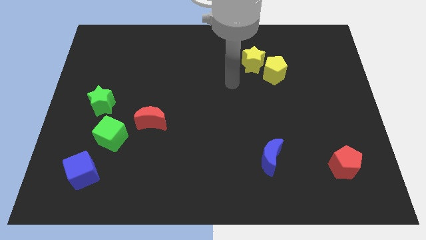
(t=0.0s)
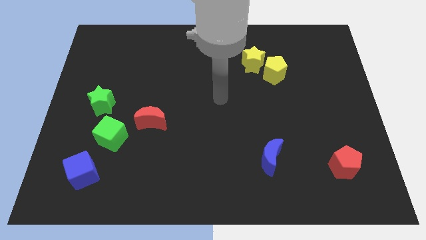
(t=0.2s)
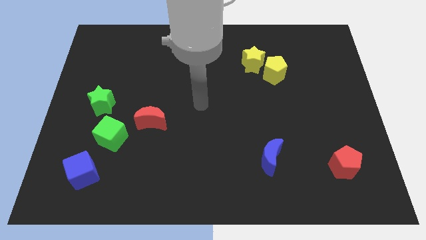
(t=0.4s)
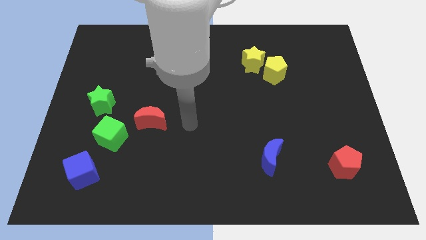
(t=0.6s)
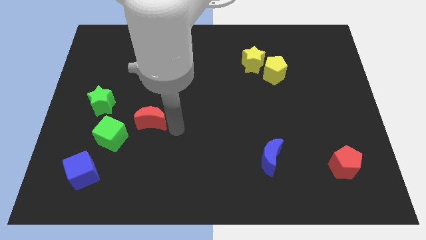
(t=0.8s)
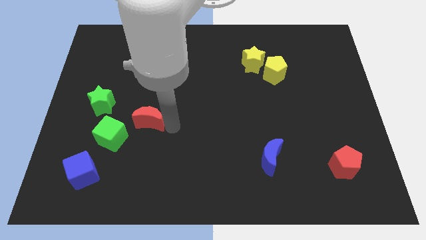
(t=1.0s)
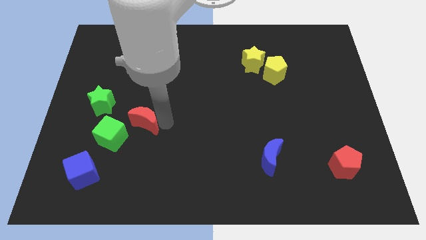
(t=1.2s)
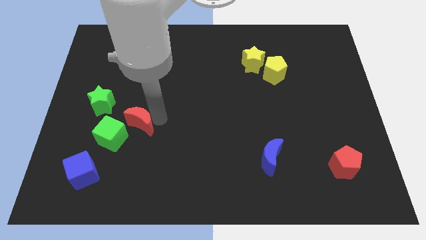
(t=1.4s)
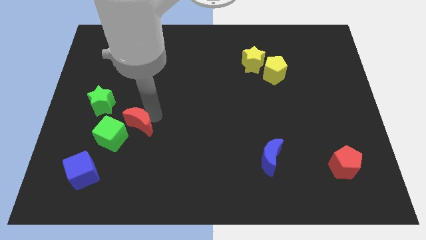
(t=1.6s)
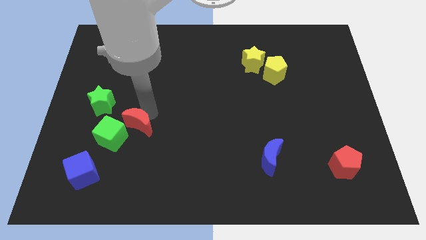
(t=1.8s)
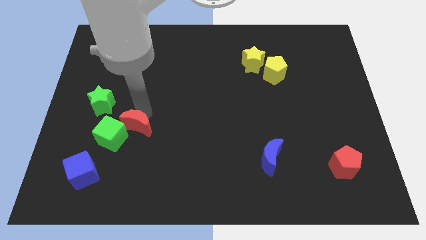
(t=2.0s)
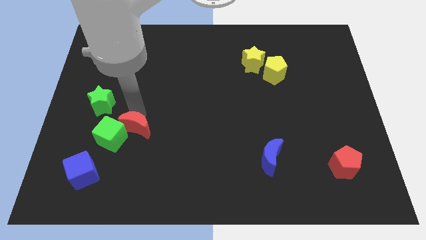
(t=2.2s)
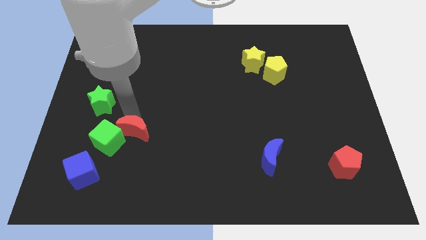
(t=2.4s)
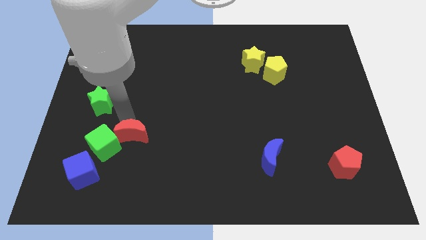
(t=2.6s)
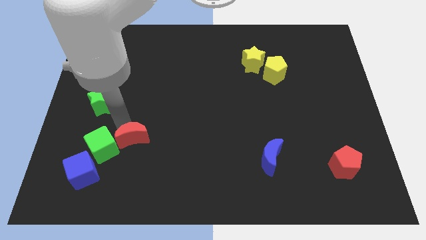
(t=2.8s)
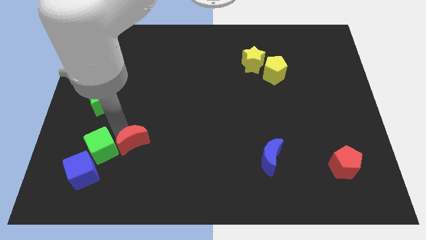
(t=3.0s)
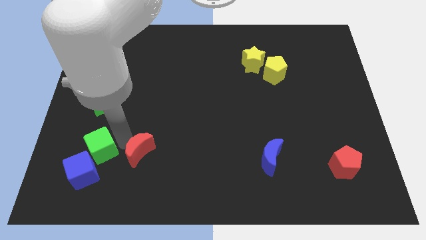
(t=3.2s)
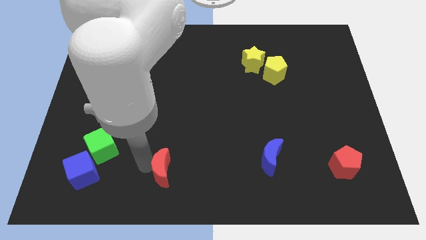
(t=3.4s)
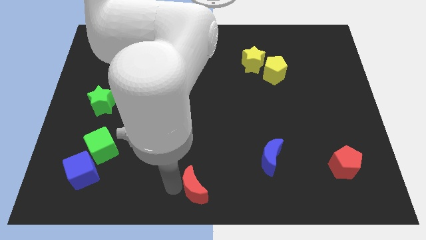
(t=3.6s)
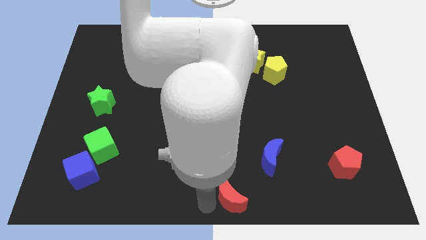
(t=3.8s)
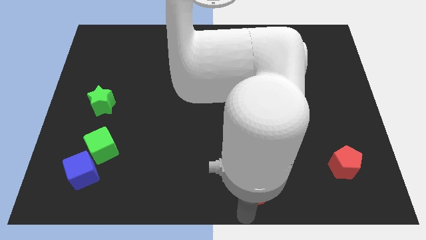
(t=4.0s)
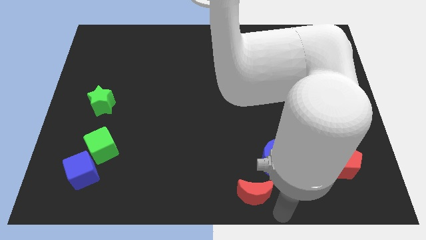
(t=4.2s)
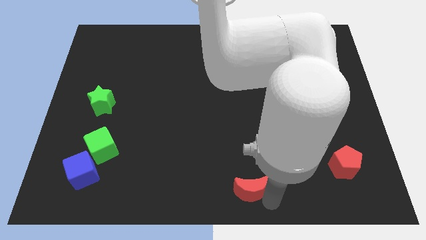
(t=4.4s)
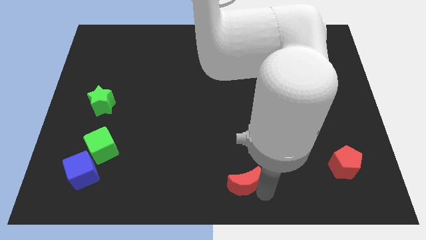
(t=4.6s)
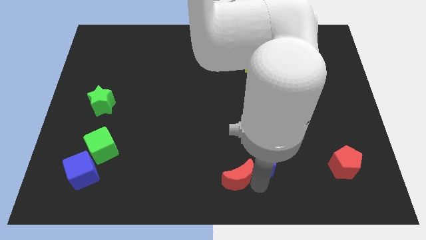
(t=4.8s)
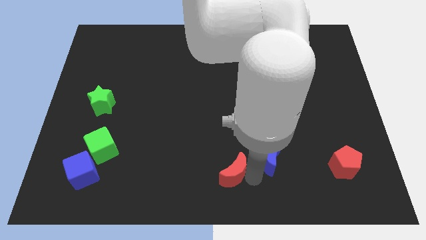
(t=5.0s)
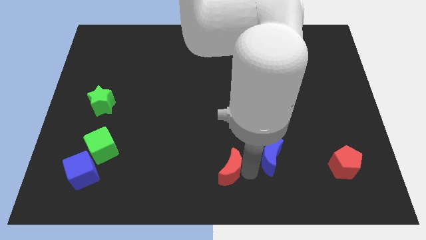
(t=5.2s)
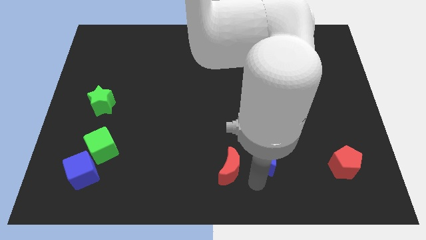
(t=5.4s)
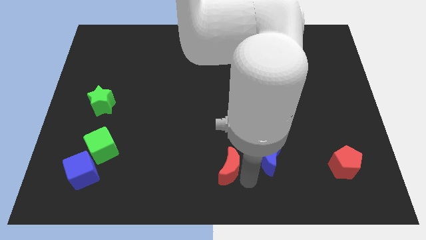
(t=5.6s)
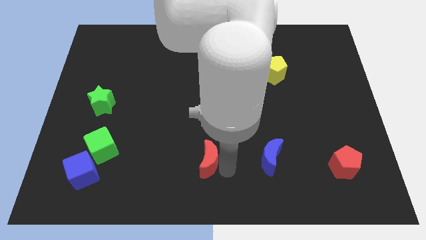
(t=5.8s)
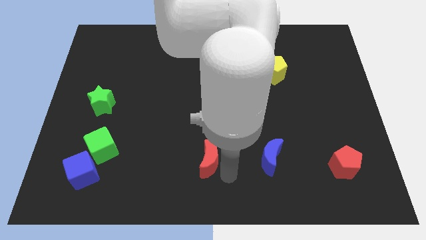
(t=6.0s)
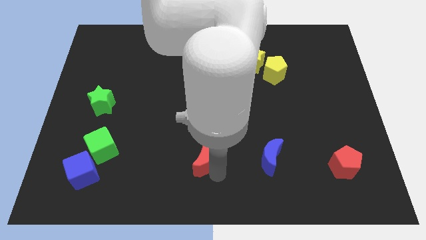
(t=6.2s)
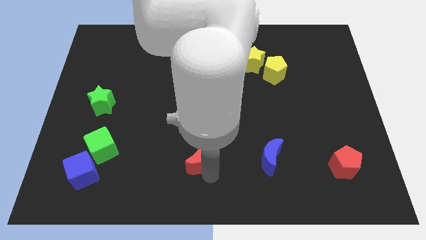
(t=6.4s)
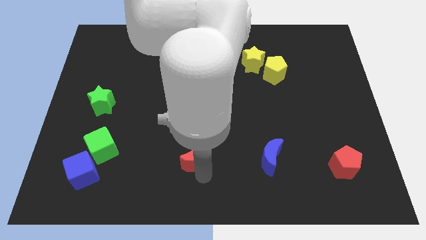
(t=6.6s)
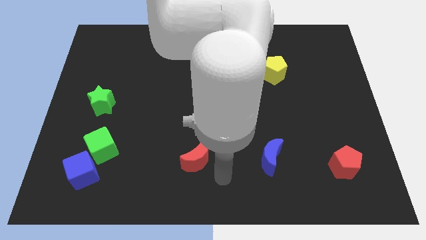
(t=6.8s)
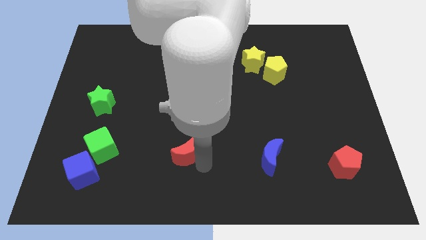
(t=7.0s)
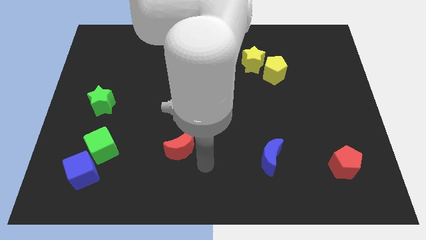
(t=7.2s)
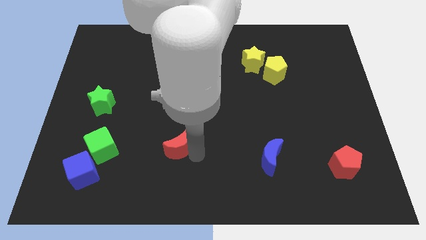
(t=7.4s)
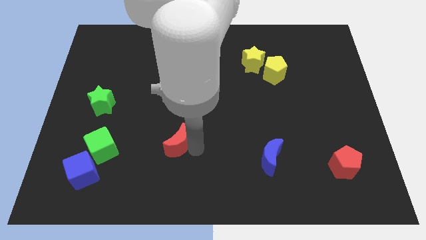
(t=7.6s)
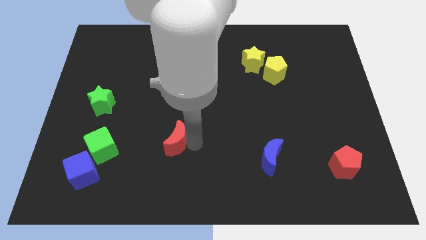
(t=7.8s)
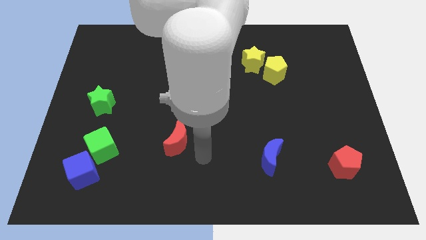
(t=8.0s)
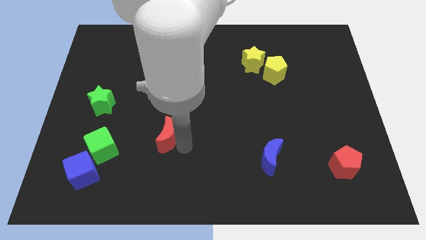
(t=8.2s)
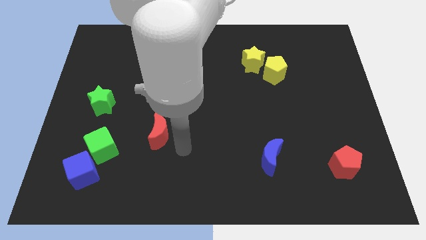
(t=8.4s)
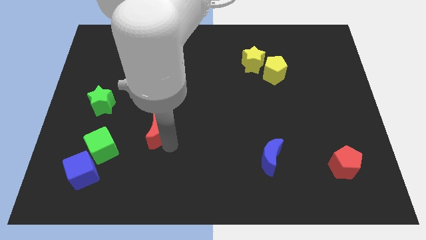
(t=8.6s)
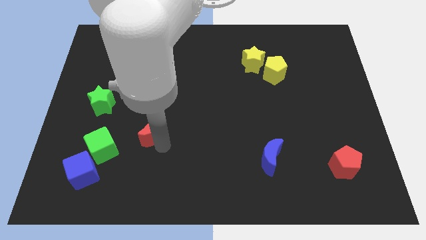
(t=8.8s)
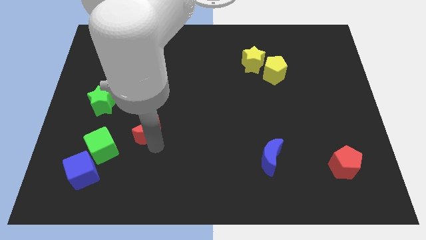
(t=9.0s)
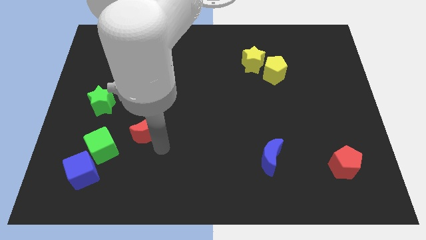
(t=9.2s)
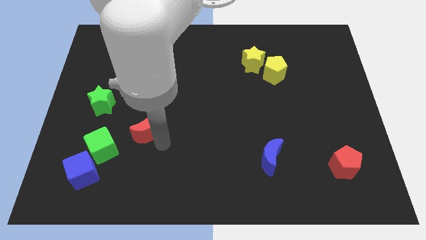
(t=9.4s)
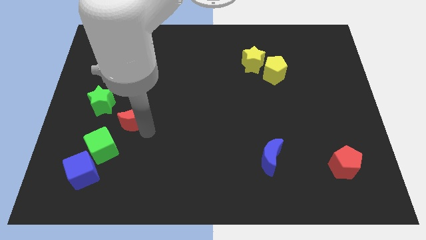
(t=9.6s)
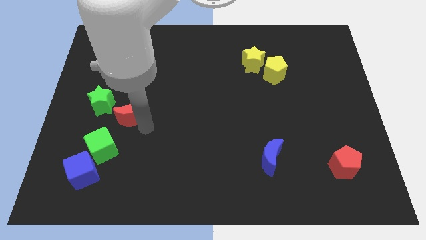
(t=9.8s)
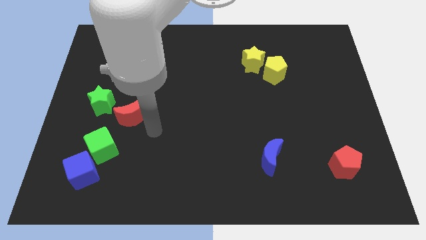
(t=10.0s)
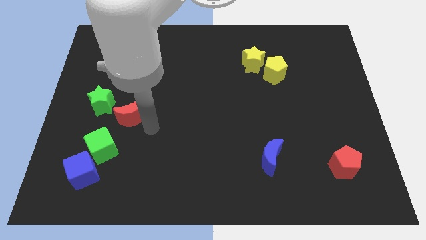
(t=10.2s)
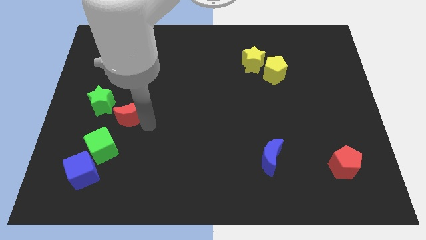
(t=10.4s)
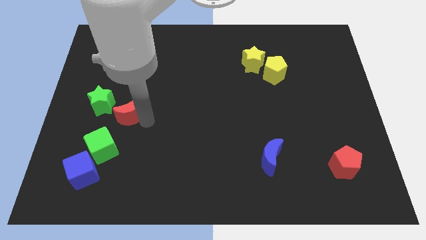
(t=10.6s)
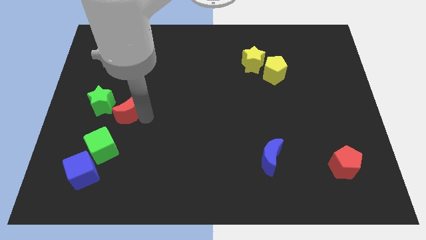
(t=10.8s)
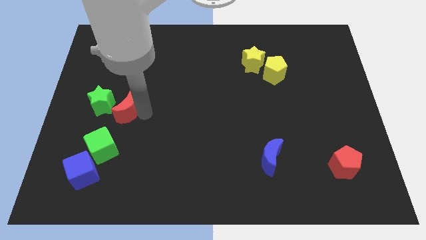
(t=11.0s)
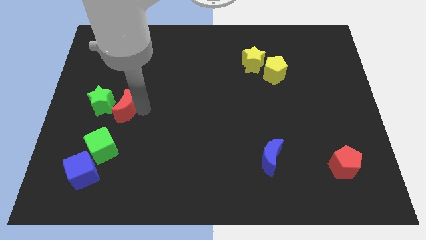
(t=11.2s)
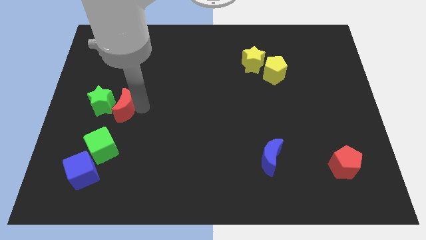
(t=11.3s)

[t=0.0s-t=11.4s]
push the red moon towards the green star

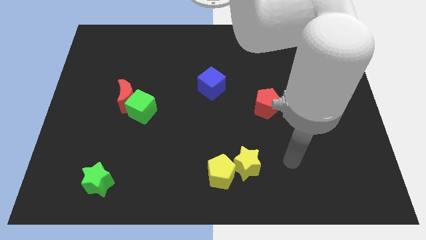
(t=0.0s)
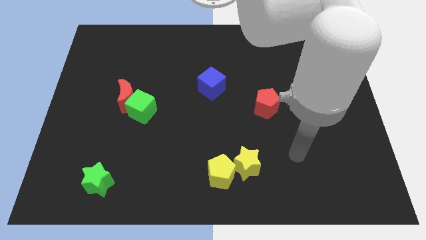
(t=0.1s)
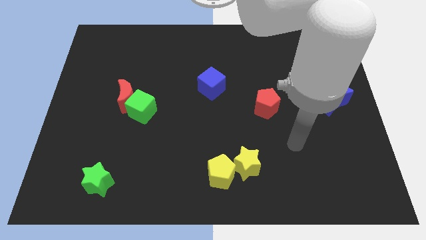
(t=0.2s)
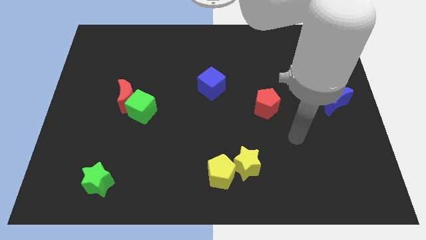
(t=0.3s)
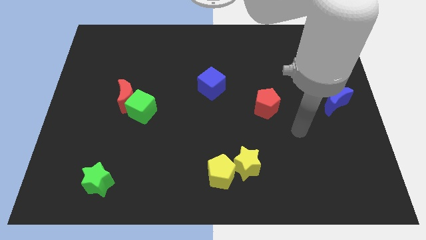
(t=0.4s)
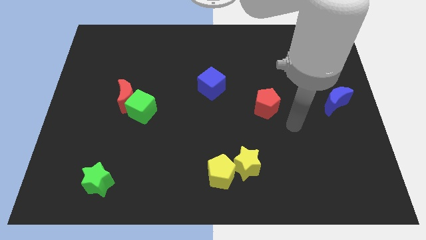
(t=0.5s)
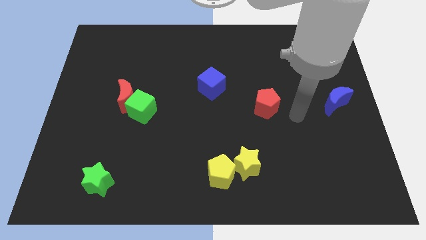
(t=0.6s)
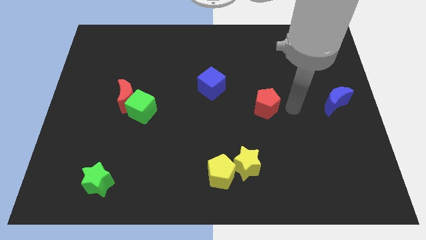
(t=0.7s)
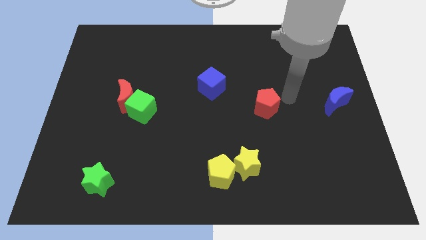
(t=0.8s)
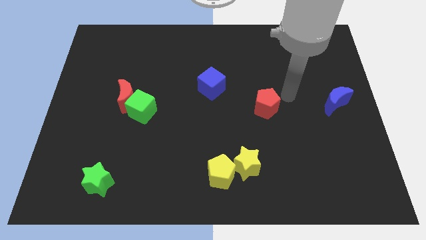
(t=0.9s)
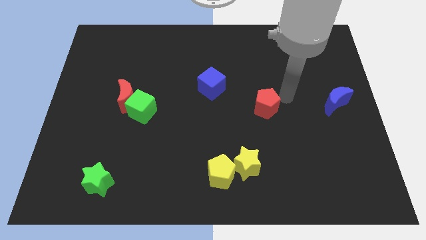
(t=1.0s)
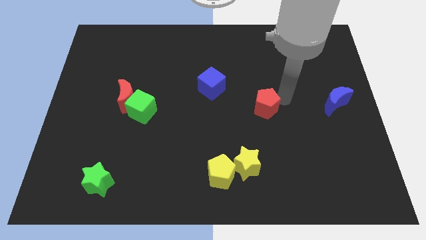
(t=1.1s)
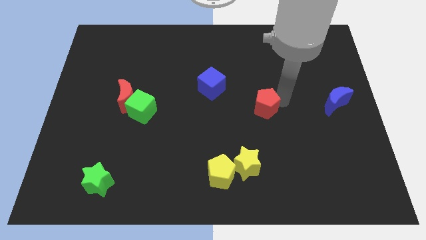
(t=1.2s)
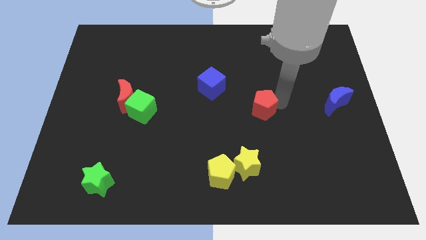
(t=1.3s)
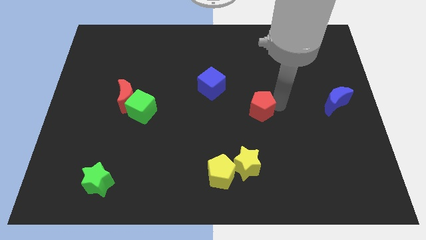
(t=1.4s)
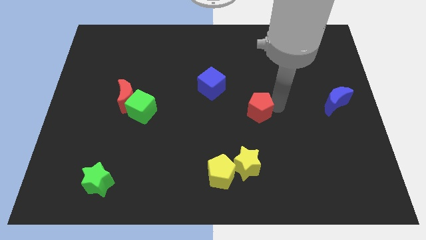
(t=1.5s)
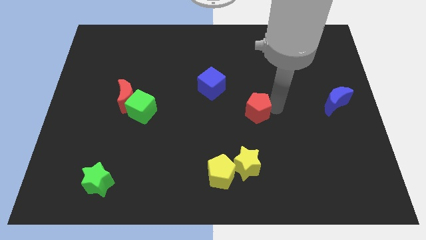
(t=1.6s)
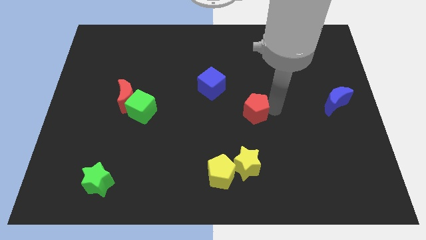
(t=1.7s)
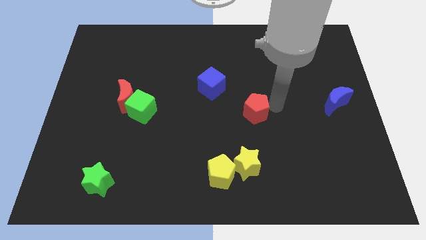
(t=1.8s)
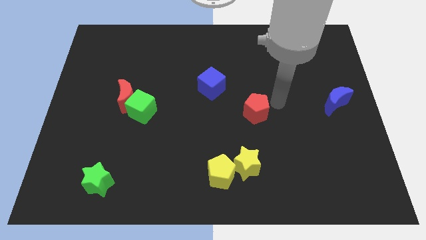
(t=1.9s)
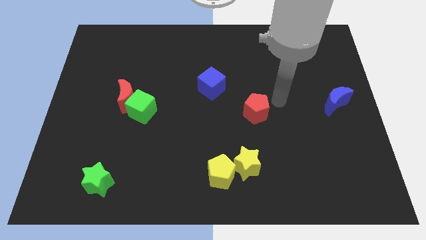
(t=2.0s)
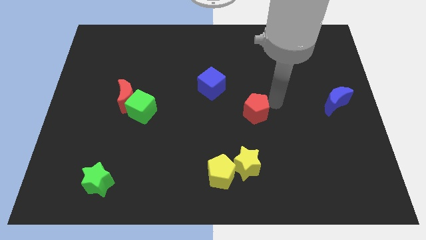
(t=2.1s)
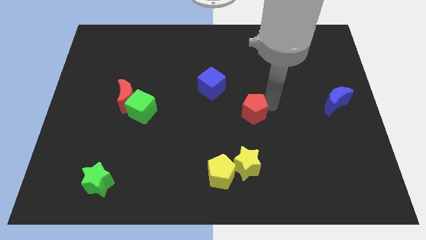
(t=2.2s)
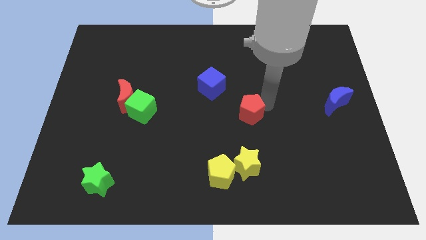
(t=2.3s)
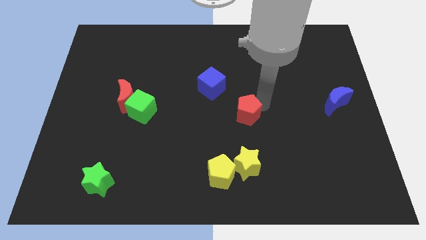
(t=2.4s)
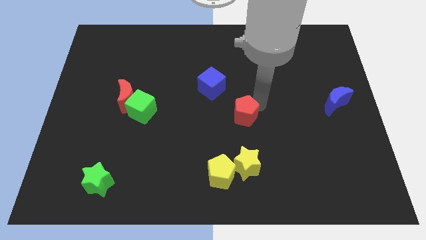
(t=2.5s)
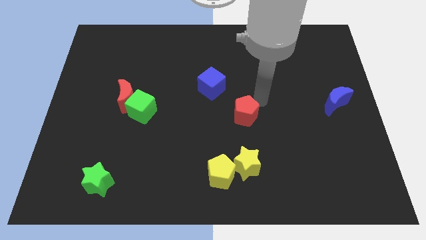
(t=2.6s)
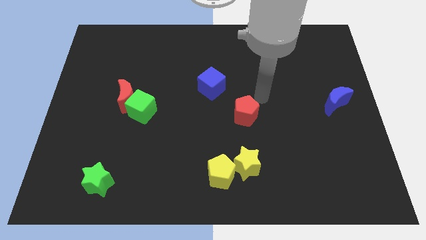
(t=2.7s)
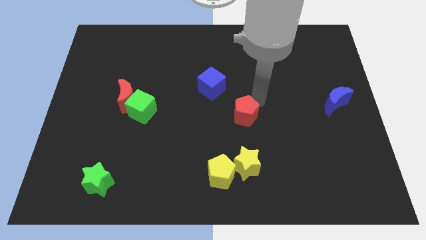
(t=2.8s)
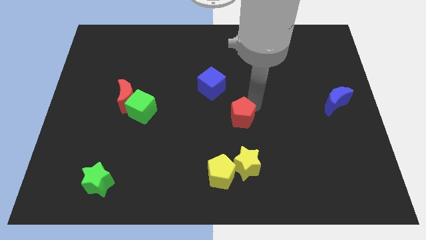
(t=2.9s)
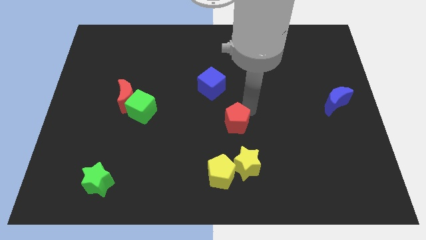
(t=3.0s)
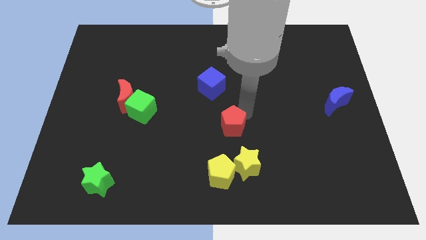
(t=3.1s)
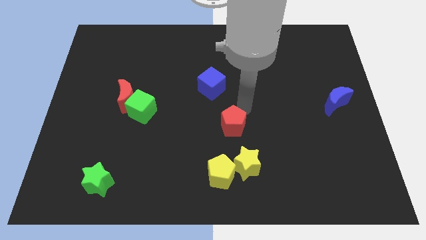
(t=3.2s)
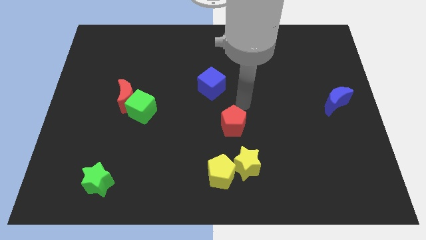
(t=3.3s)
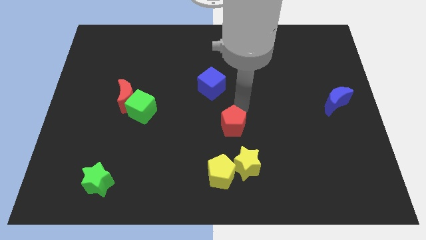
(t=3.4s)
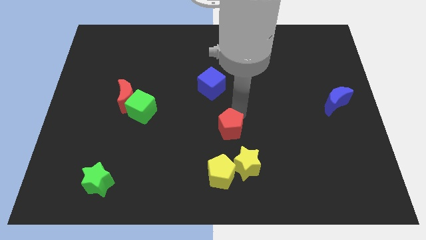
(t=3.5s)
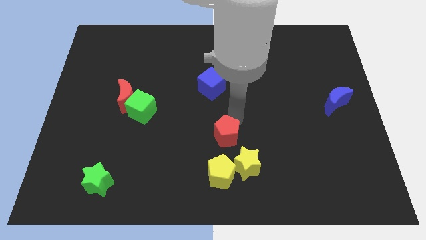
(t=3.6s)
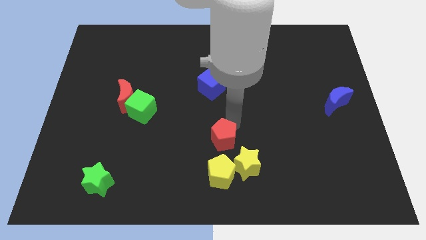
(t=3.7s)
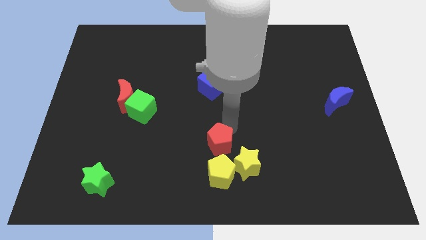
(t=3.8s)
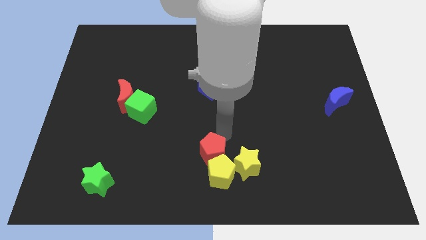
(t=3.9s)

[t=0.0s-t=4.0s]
move the red pentagon close to the yellow pentagon
